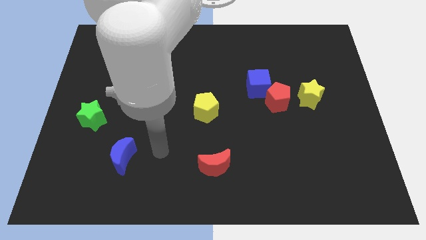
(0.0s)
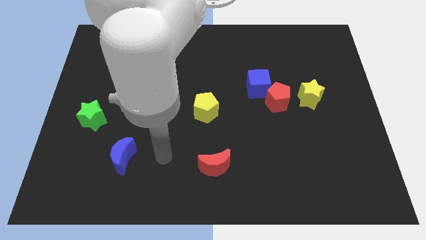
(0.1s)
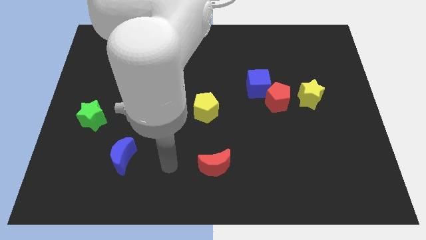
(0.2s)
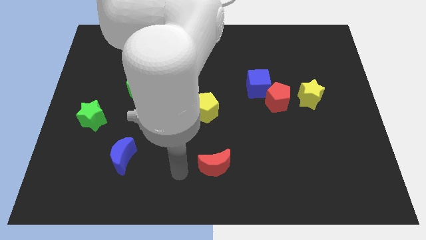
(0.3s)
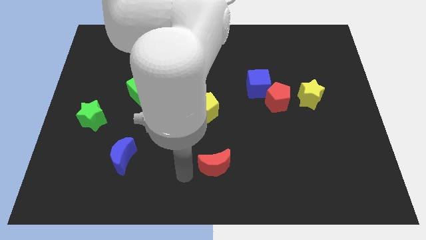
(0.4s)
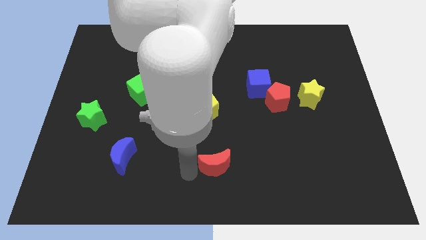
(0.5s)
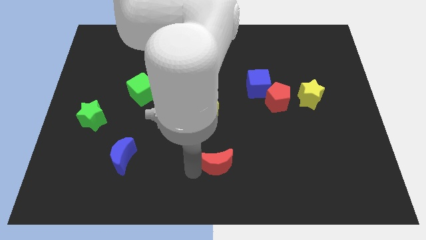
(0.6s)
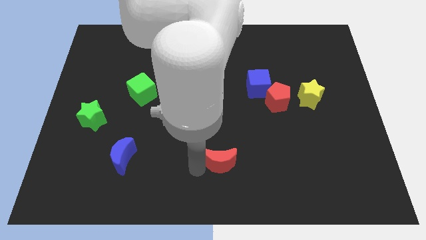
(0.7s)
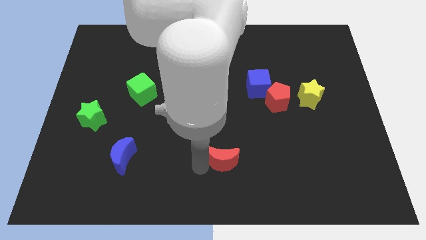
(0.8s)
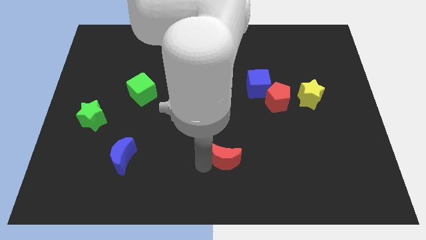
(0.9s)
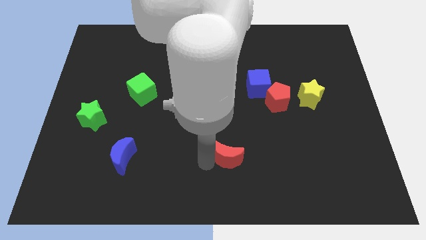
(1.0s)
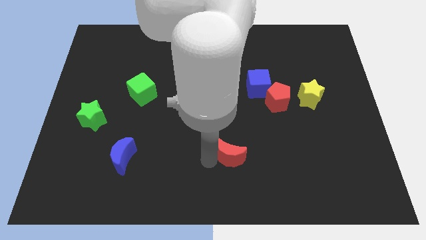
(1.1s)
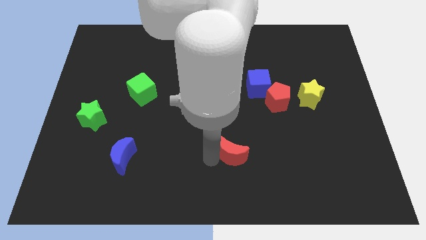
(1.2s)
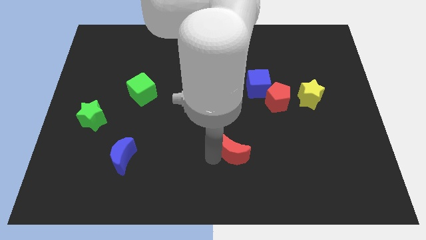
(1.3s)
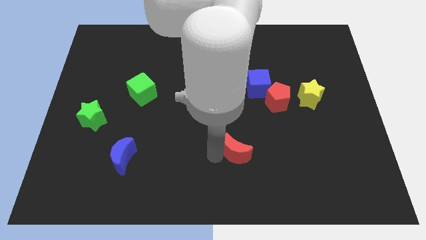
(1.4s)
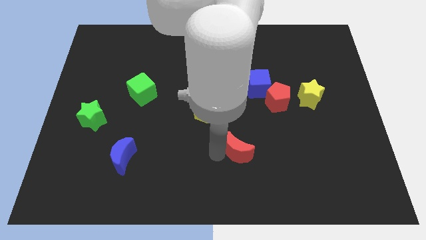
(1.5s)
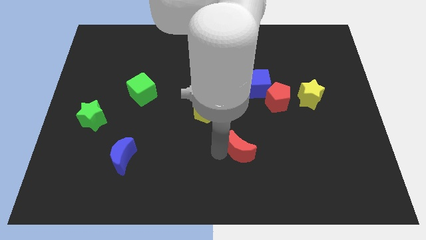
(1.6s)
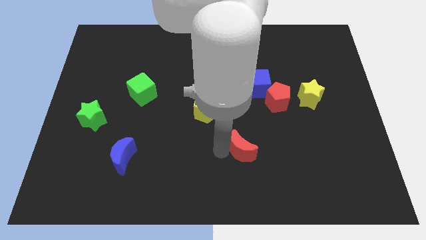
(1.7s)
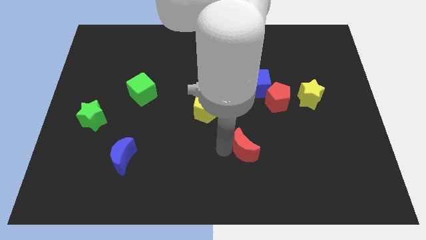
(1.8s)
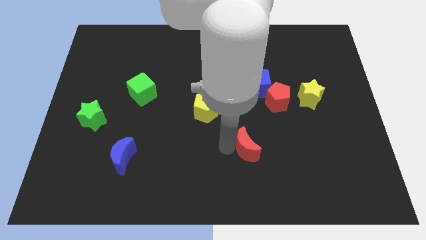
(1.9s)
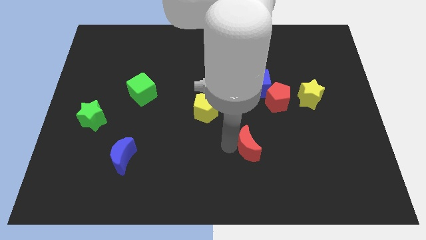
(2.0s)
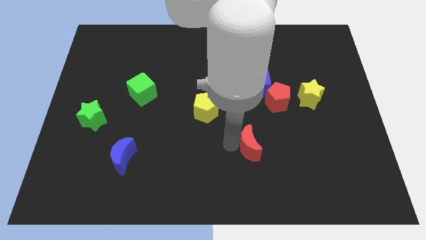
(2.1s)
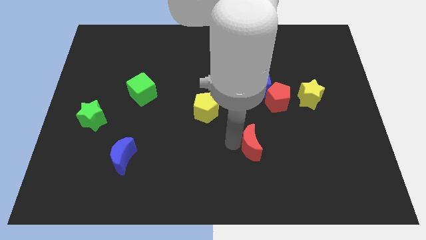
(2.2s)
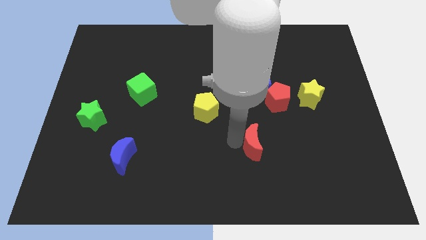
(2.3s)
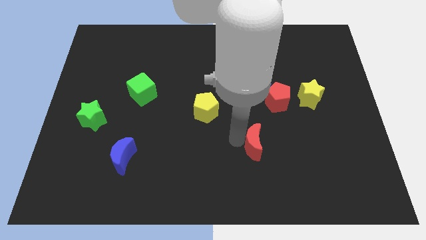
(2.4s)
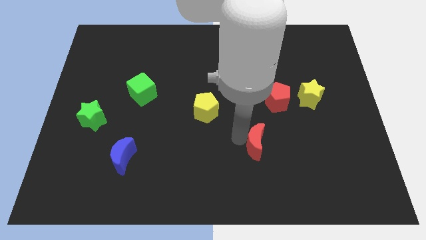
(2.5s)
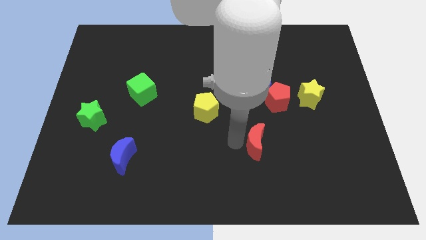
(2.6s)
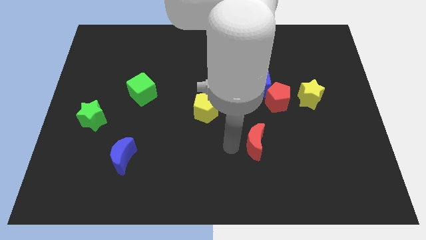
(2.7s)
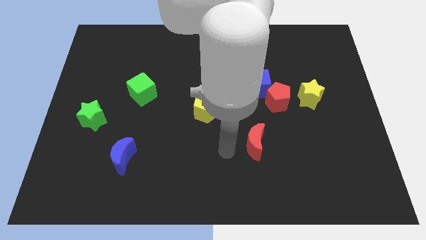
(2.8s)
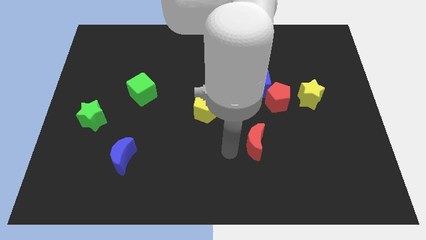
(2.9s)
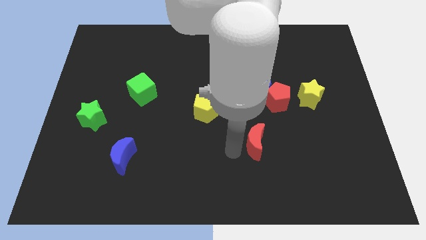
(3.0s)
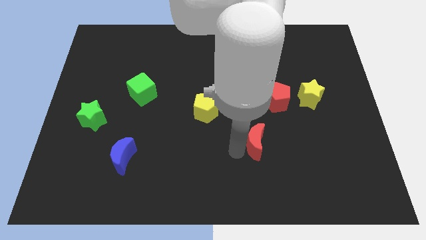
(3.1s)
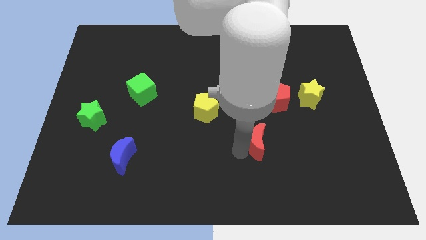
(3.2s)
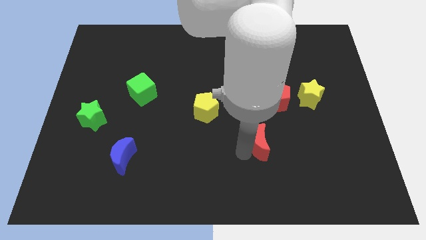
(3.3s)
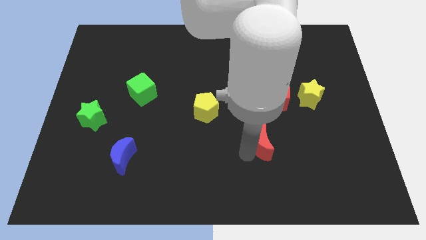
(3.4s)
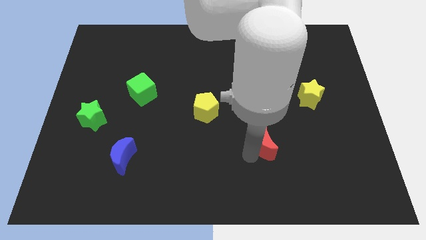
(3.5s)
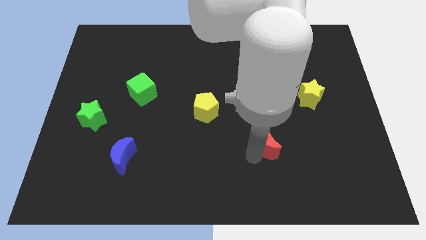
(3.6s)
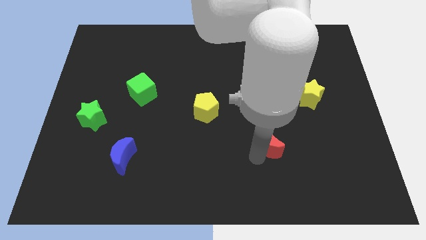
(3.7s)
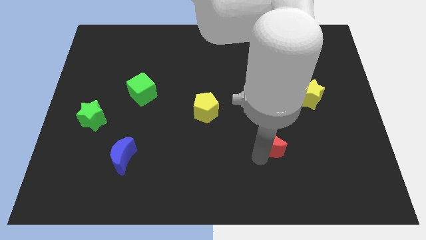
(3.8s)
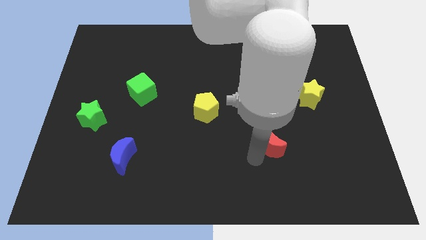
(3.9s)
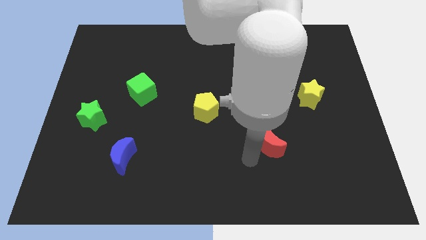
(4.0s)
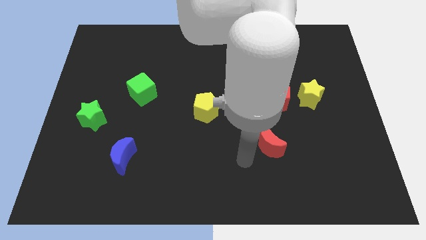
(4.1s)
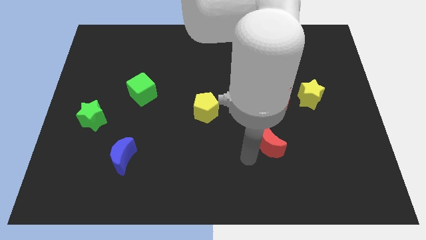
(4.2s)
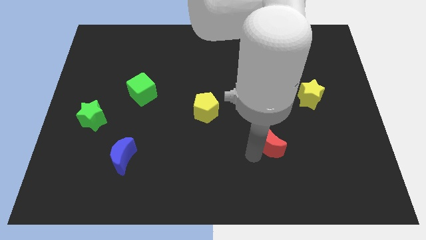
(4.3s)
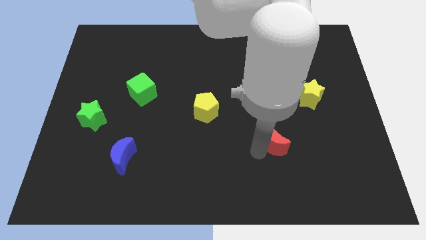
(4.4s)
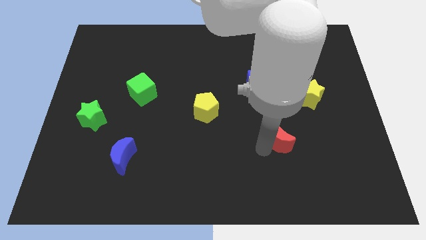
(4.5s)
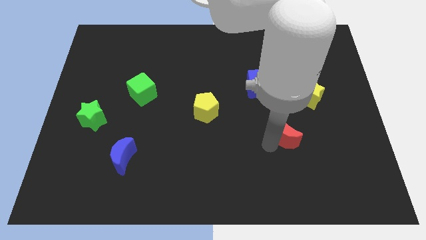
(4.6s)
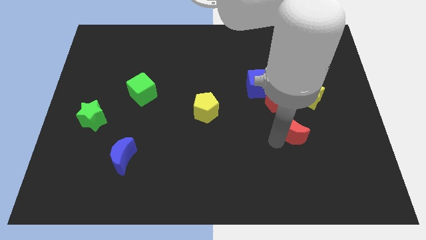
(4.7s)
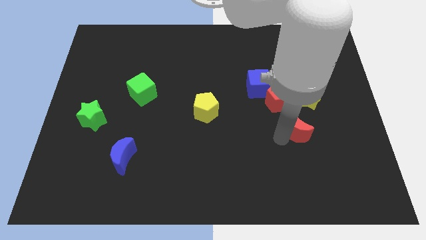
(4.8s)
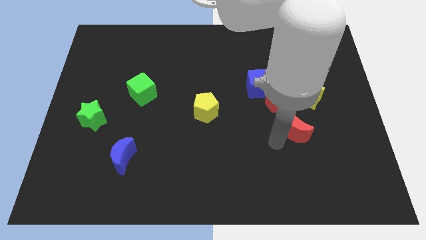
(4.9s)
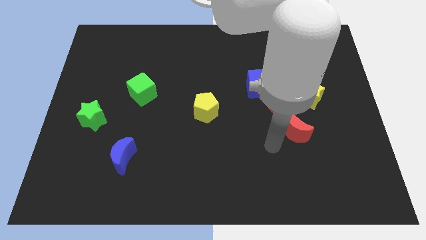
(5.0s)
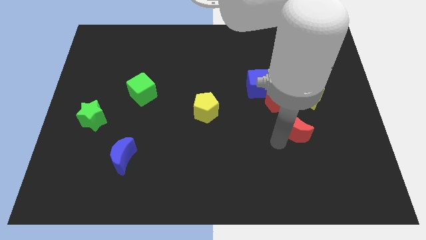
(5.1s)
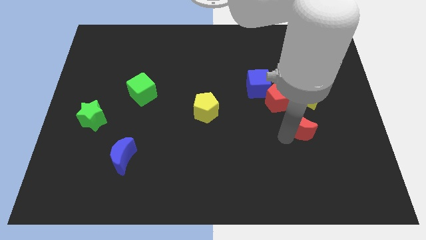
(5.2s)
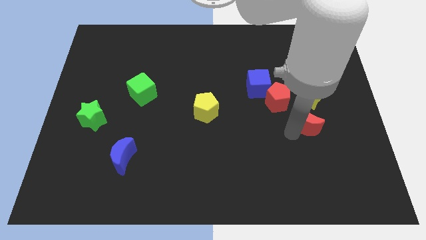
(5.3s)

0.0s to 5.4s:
push the red moon upwards and then to the right

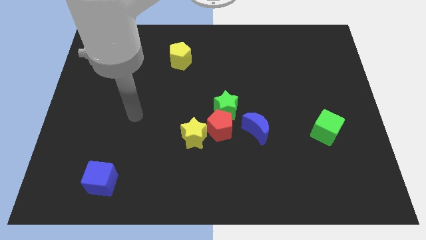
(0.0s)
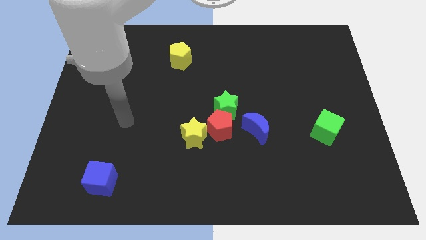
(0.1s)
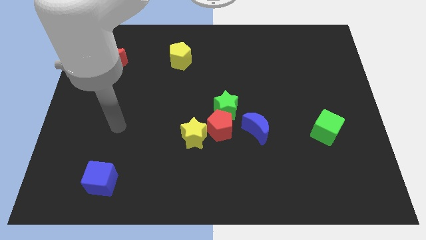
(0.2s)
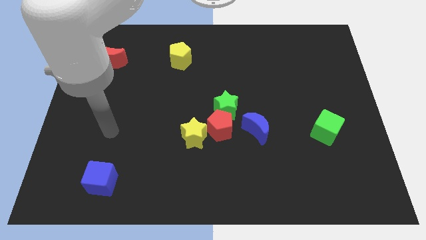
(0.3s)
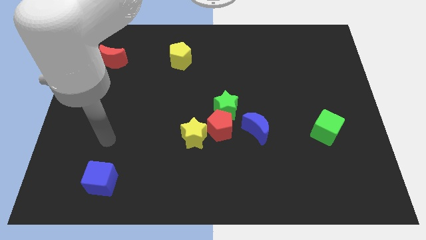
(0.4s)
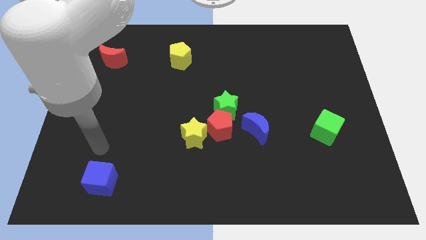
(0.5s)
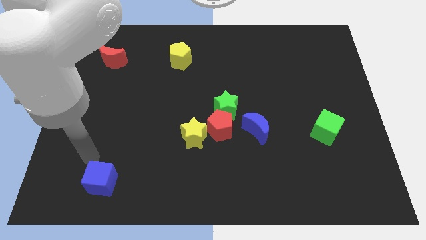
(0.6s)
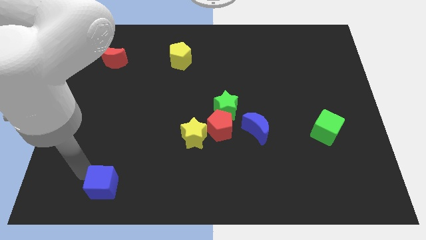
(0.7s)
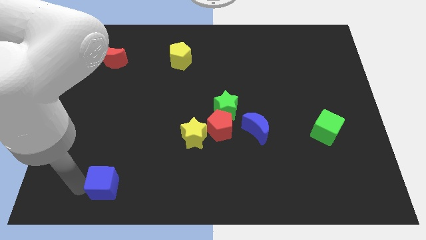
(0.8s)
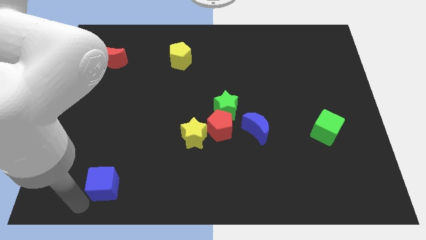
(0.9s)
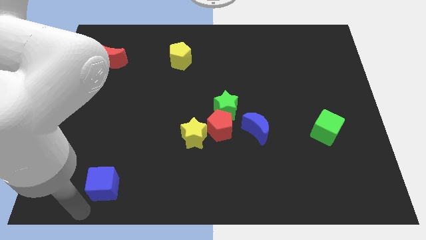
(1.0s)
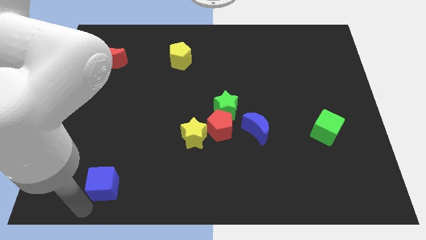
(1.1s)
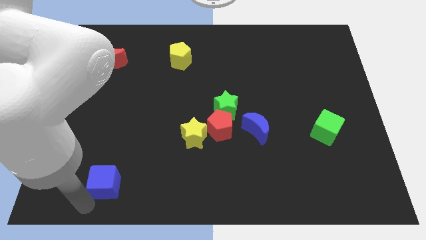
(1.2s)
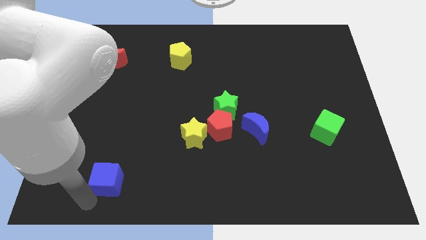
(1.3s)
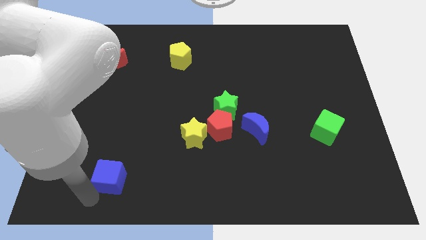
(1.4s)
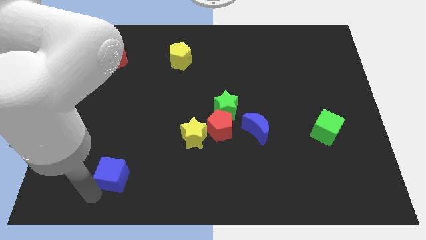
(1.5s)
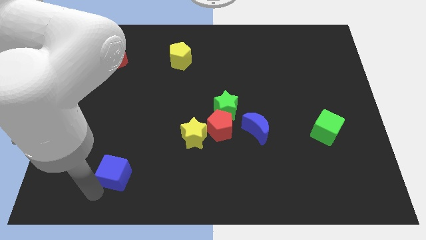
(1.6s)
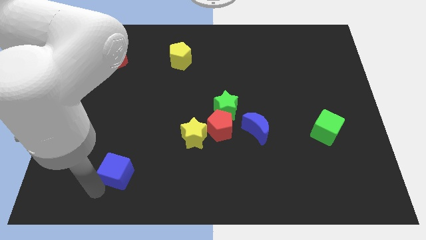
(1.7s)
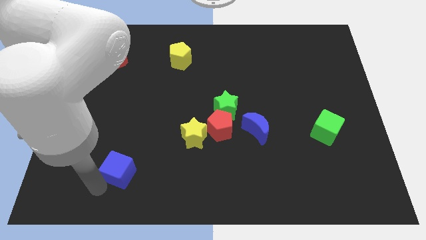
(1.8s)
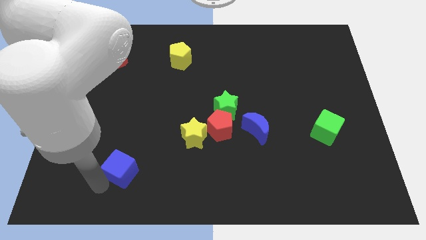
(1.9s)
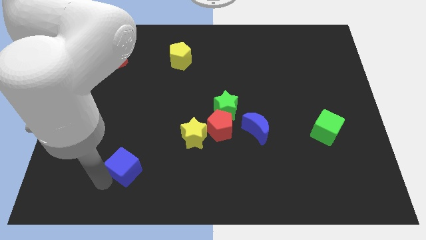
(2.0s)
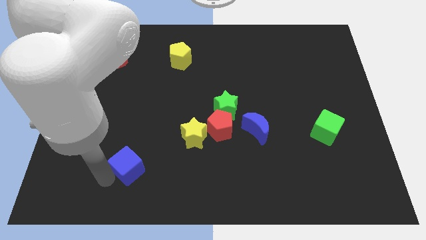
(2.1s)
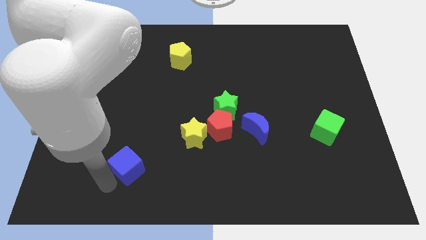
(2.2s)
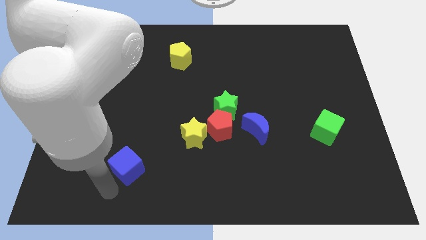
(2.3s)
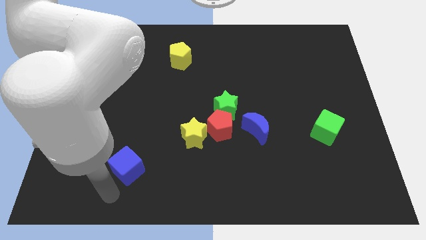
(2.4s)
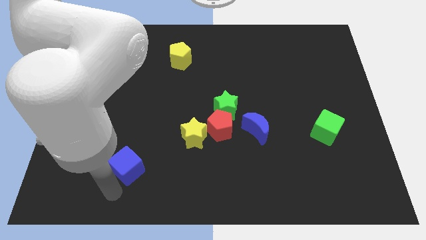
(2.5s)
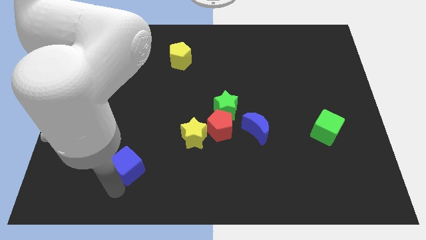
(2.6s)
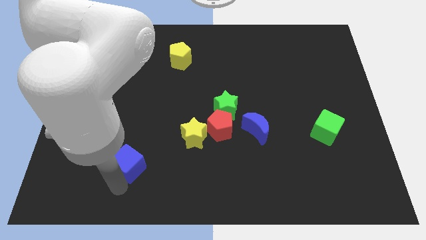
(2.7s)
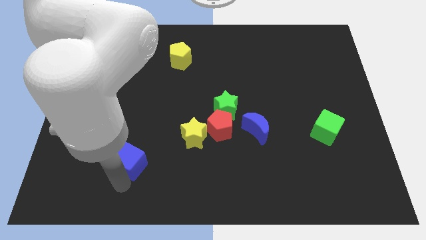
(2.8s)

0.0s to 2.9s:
slide the blue cube a little upwards and to the right
